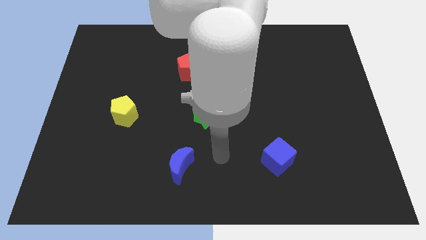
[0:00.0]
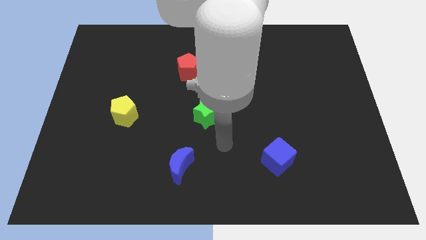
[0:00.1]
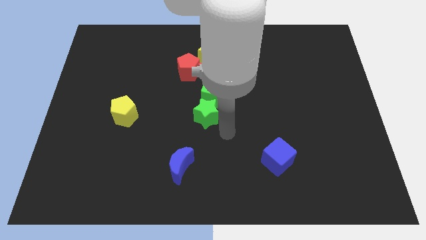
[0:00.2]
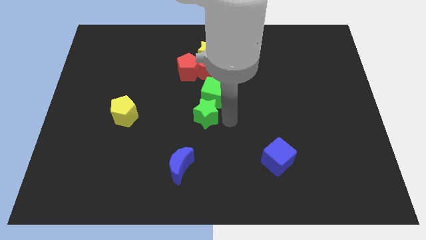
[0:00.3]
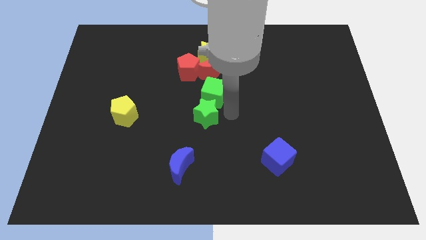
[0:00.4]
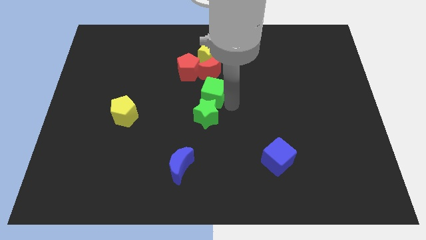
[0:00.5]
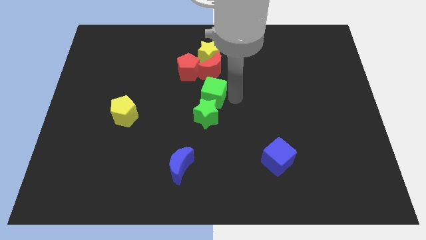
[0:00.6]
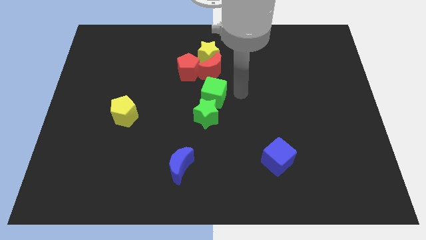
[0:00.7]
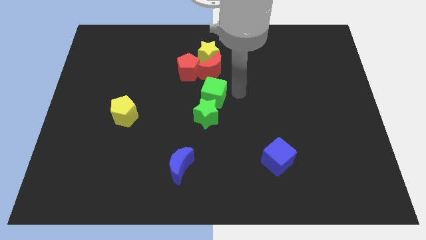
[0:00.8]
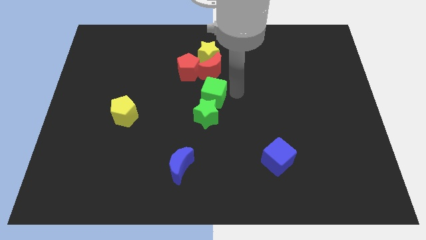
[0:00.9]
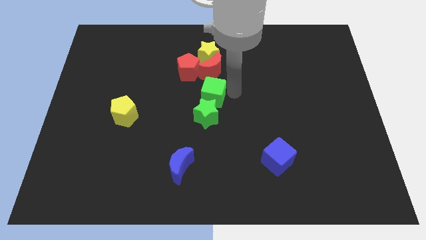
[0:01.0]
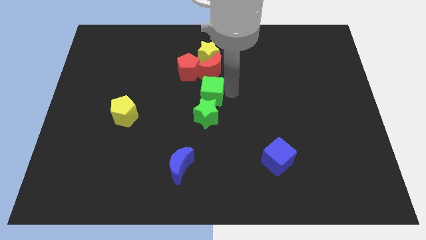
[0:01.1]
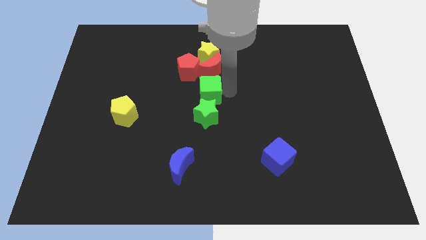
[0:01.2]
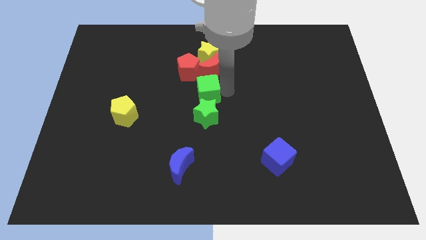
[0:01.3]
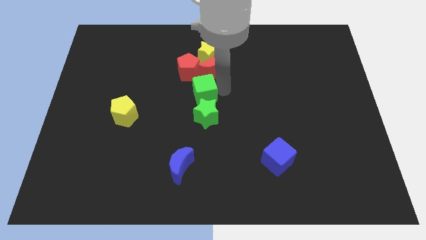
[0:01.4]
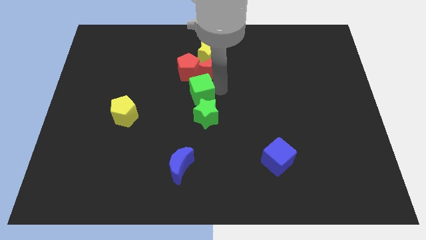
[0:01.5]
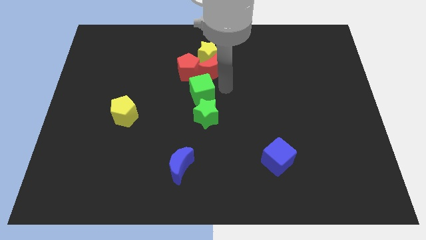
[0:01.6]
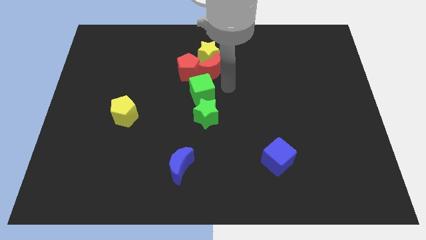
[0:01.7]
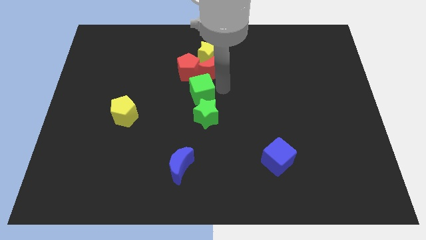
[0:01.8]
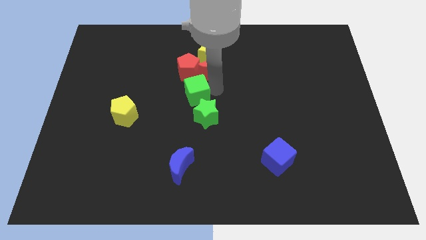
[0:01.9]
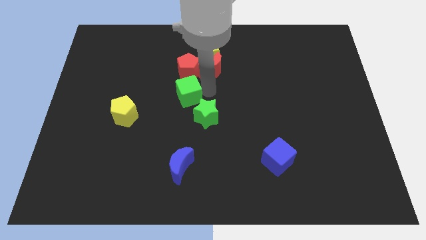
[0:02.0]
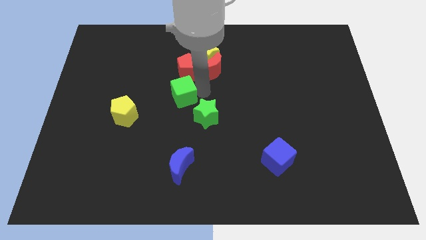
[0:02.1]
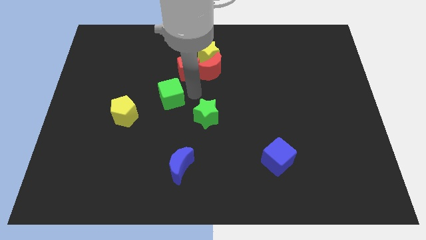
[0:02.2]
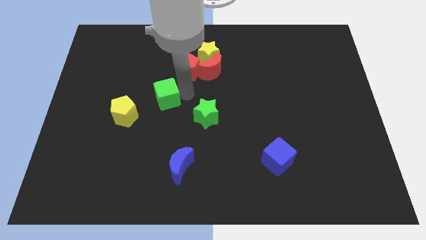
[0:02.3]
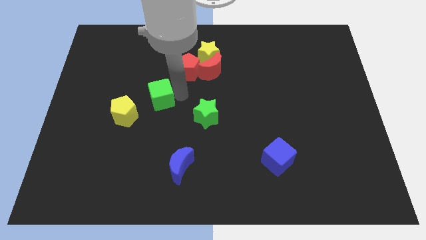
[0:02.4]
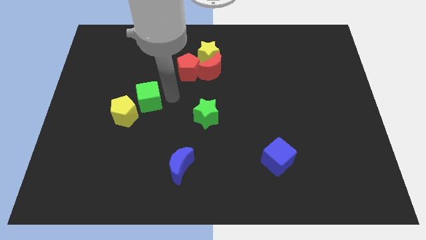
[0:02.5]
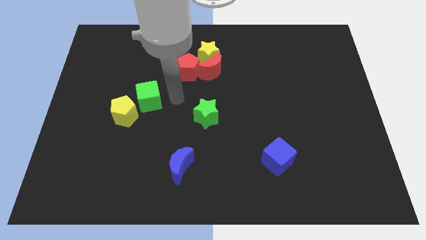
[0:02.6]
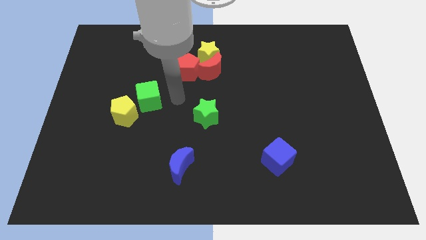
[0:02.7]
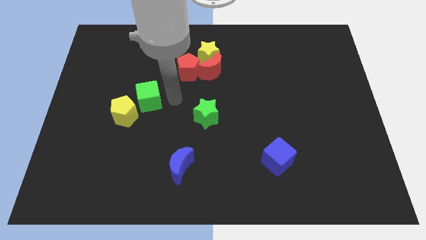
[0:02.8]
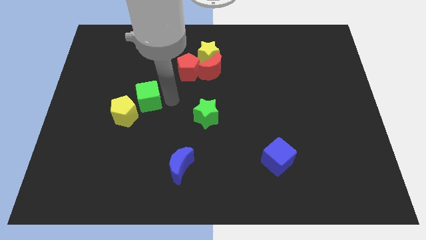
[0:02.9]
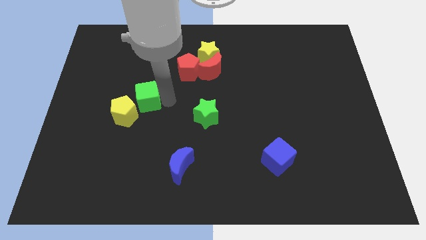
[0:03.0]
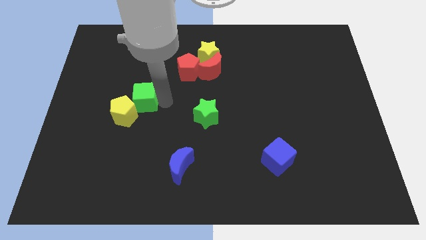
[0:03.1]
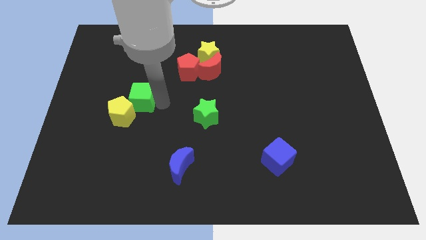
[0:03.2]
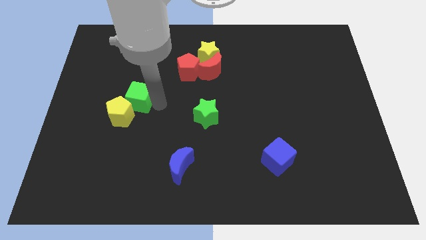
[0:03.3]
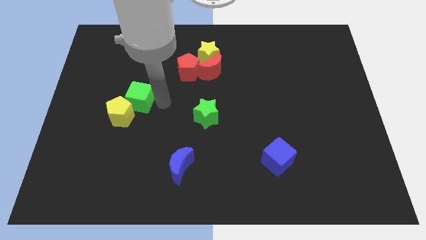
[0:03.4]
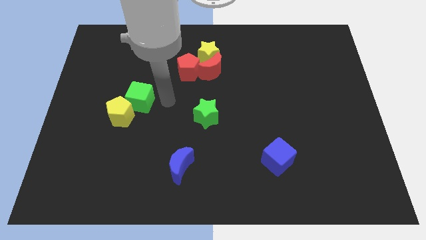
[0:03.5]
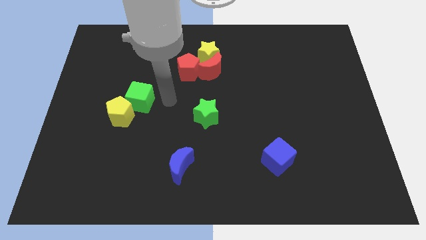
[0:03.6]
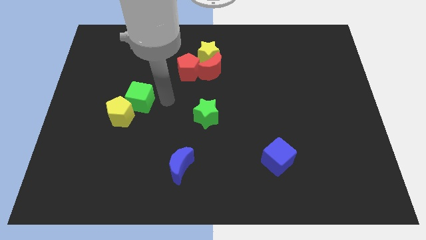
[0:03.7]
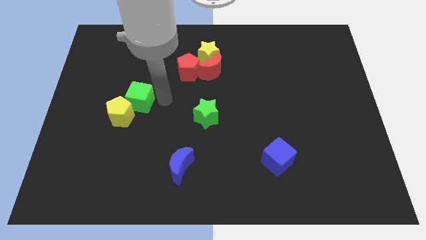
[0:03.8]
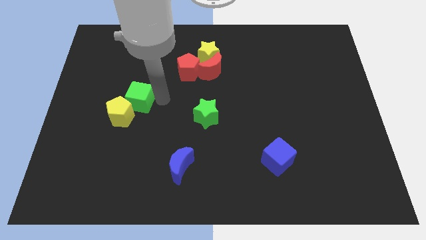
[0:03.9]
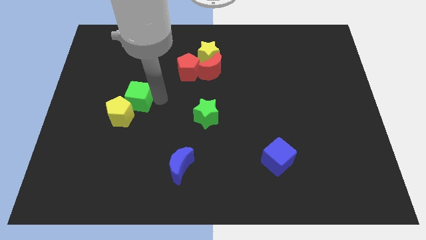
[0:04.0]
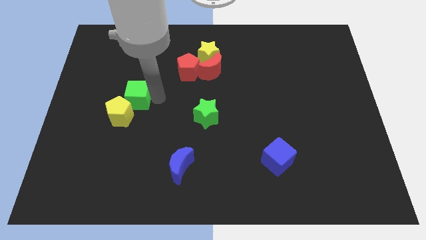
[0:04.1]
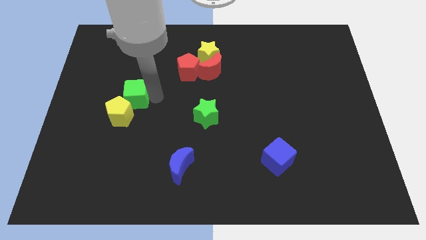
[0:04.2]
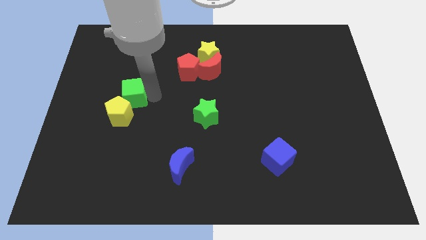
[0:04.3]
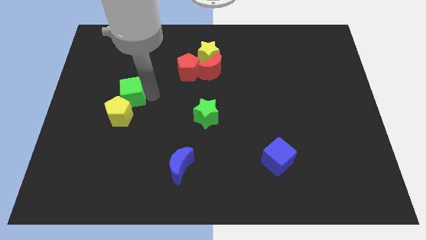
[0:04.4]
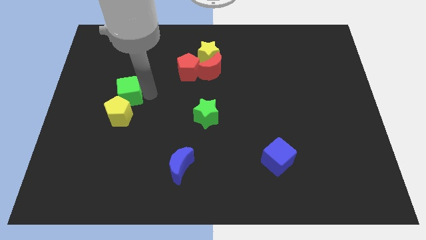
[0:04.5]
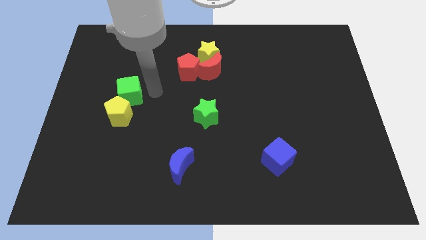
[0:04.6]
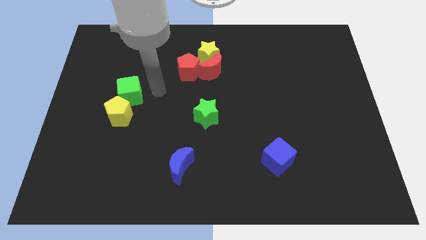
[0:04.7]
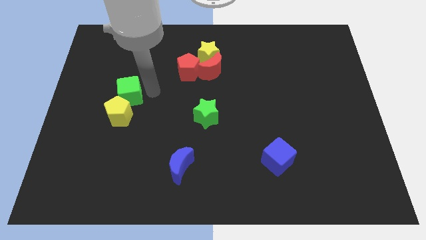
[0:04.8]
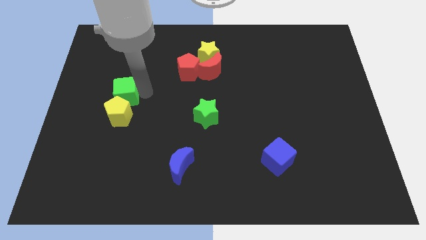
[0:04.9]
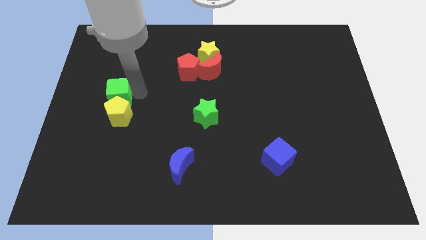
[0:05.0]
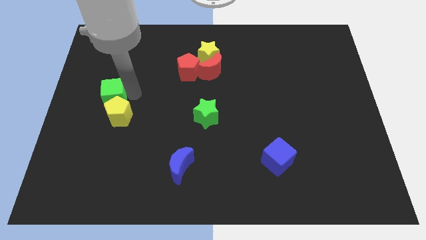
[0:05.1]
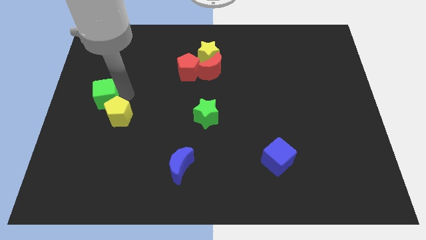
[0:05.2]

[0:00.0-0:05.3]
slide the green cube to the left side

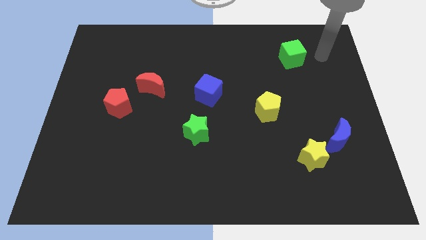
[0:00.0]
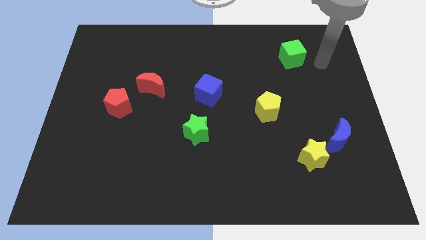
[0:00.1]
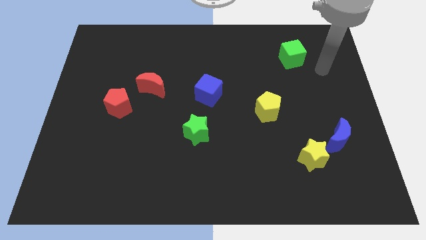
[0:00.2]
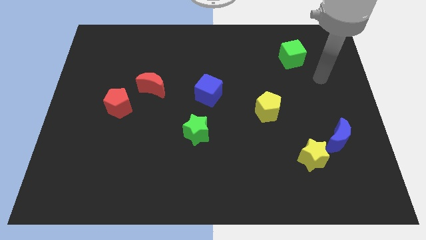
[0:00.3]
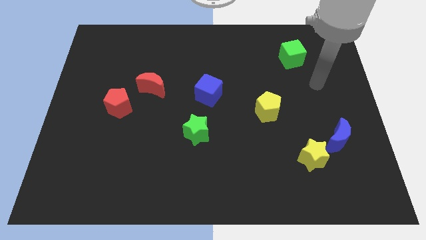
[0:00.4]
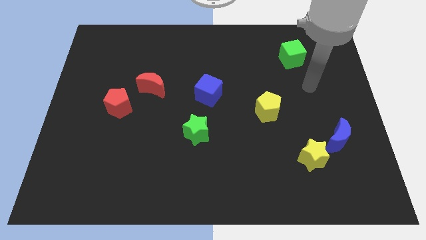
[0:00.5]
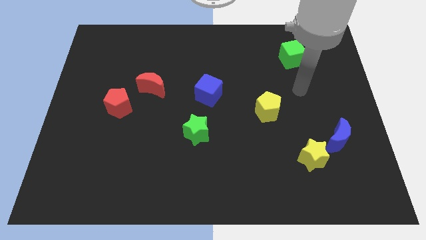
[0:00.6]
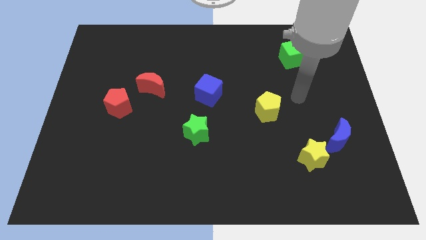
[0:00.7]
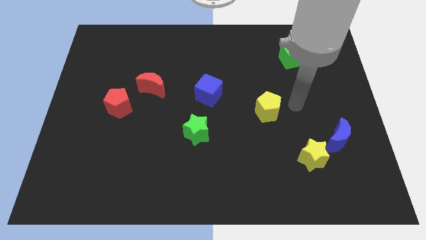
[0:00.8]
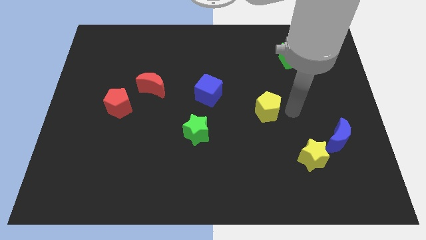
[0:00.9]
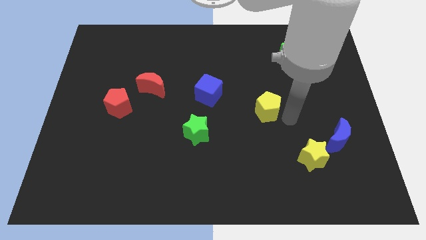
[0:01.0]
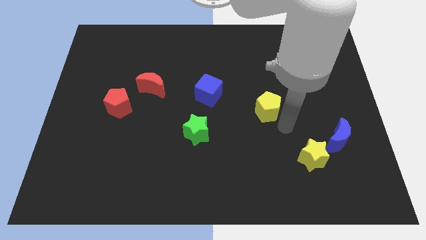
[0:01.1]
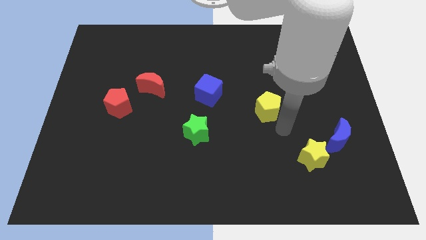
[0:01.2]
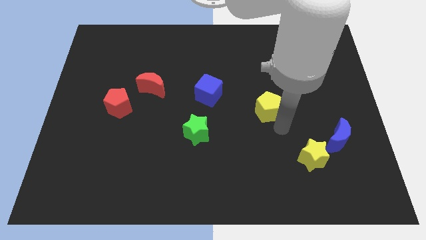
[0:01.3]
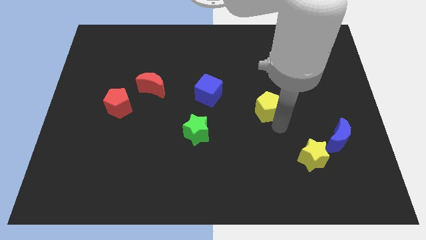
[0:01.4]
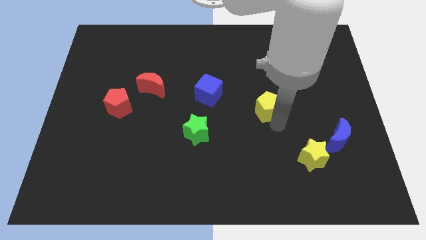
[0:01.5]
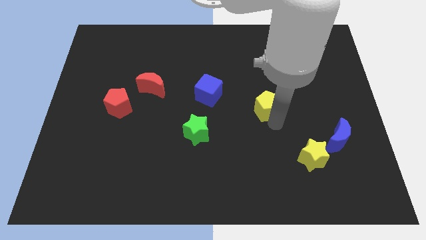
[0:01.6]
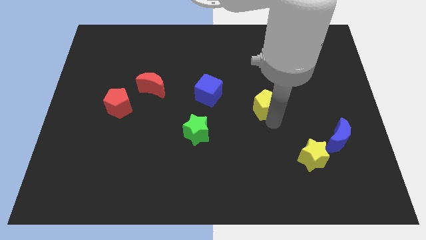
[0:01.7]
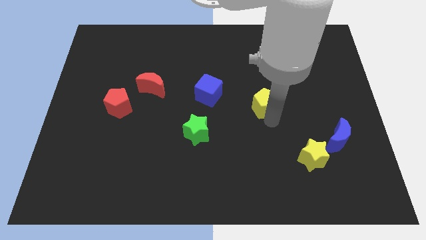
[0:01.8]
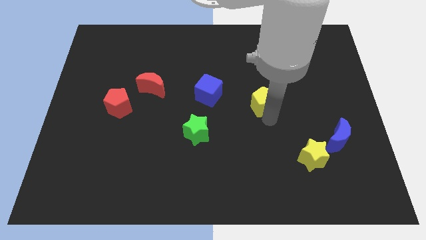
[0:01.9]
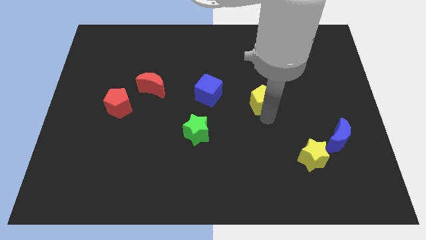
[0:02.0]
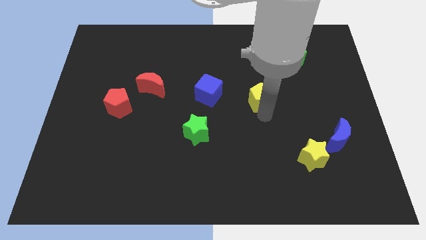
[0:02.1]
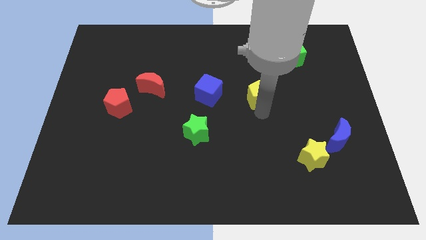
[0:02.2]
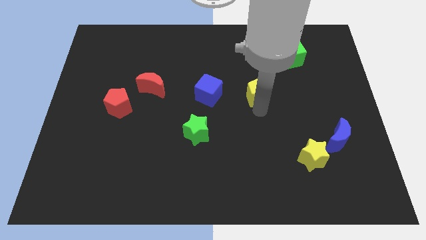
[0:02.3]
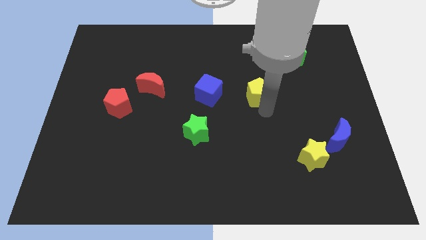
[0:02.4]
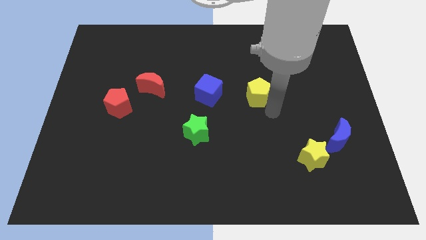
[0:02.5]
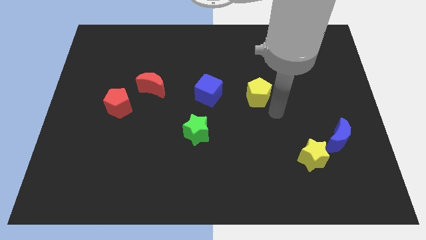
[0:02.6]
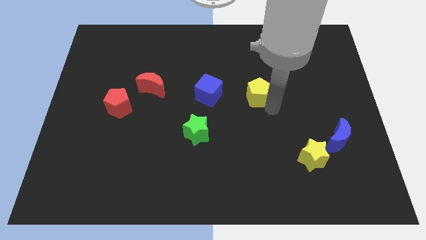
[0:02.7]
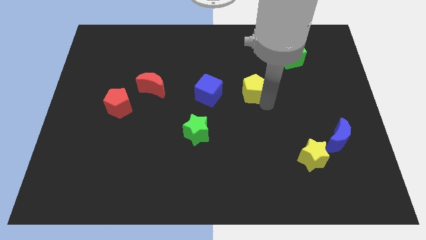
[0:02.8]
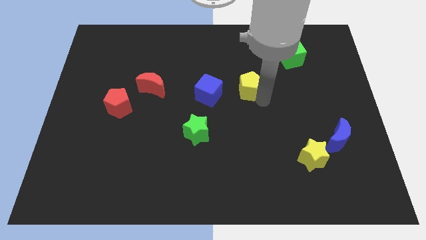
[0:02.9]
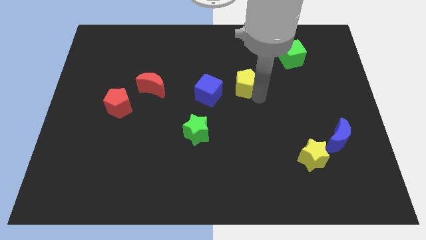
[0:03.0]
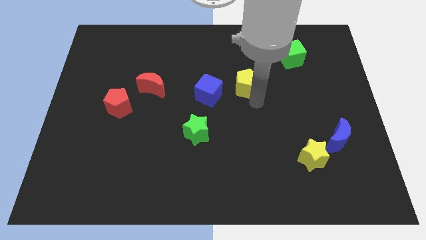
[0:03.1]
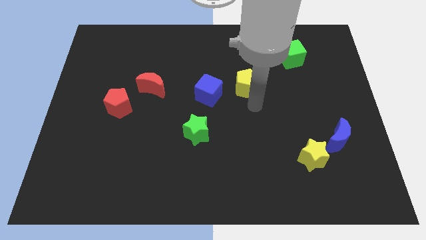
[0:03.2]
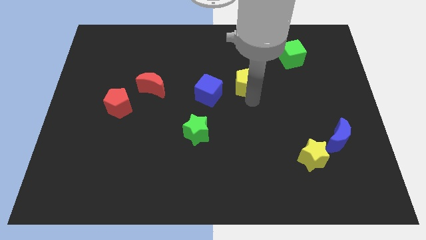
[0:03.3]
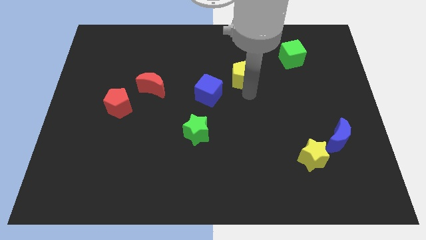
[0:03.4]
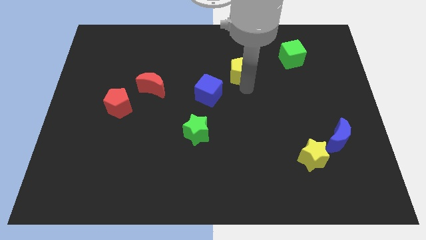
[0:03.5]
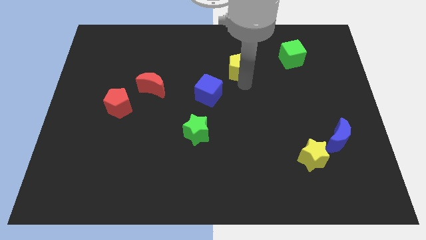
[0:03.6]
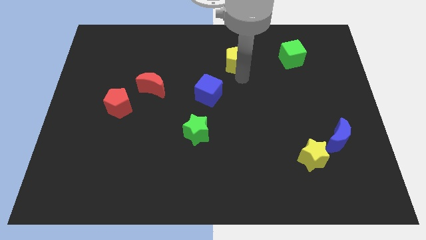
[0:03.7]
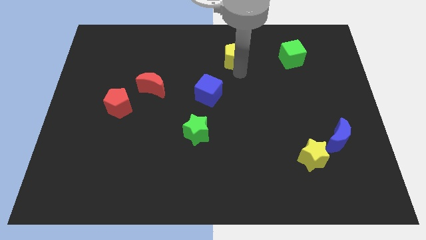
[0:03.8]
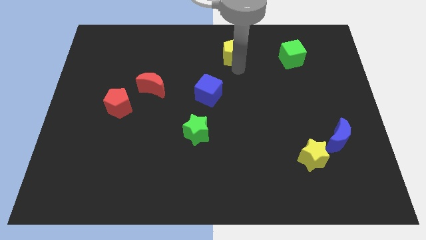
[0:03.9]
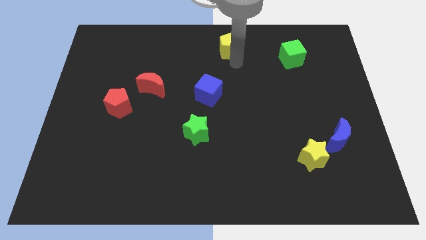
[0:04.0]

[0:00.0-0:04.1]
put the yellow pentagon to the top side
